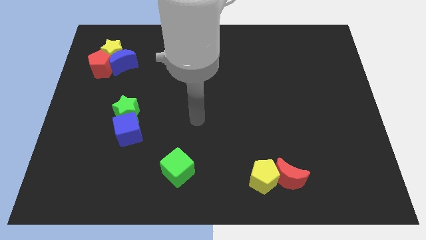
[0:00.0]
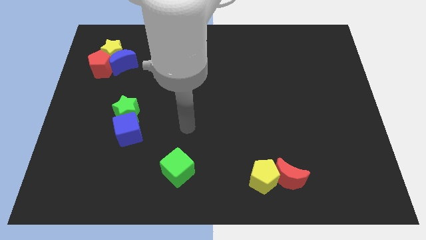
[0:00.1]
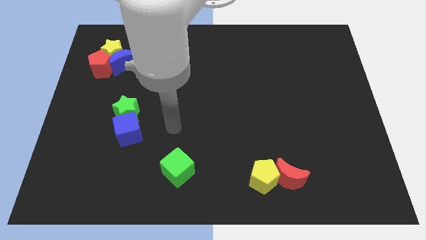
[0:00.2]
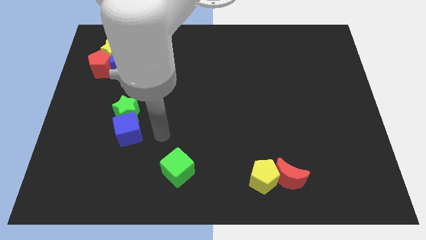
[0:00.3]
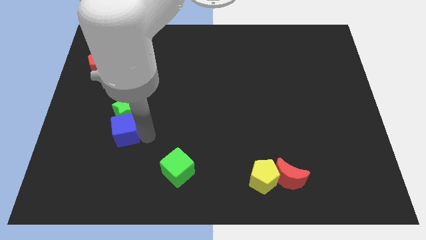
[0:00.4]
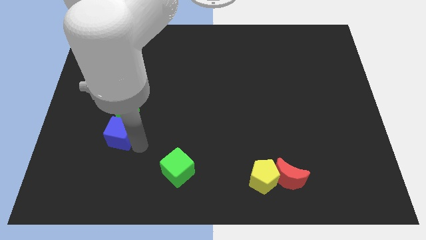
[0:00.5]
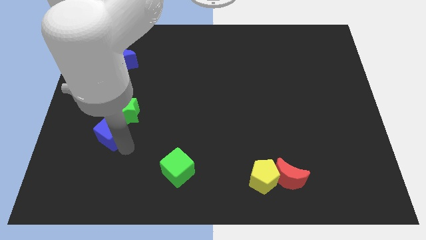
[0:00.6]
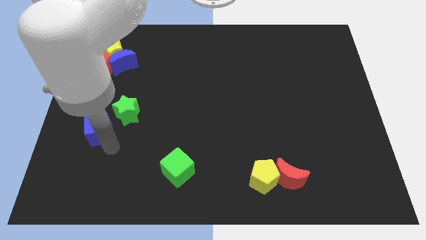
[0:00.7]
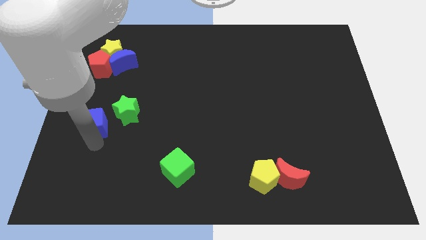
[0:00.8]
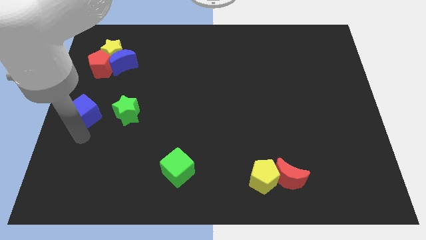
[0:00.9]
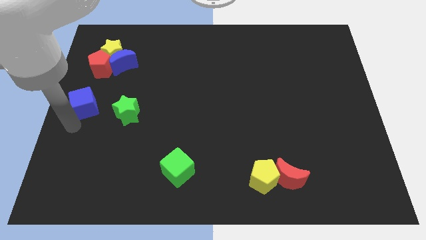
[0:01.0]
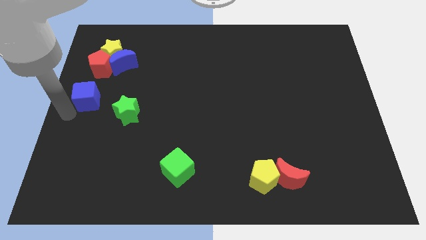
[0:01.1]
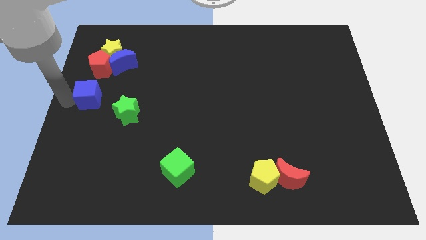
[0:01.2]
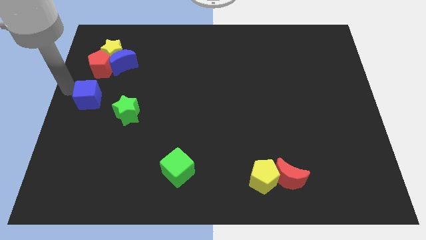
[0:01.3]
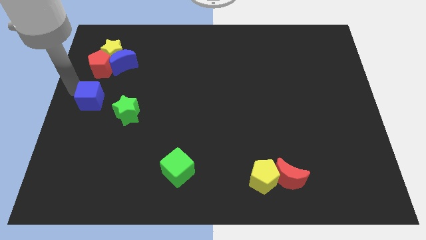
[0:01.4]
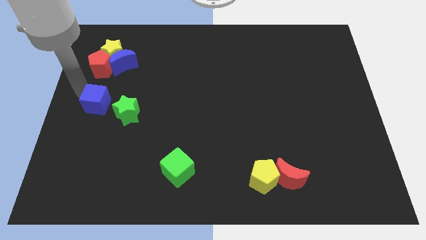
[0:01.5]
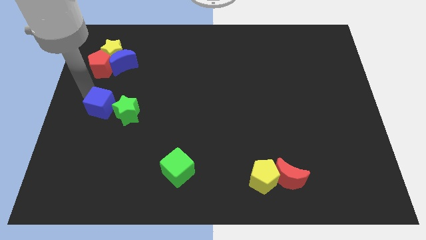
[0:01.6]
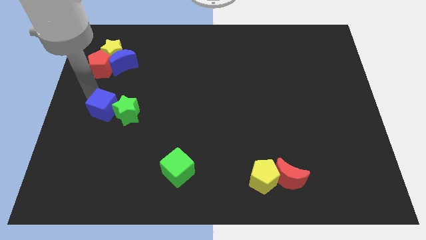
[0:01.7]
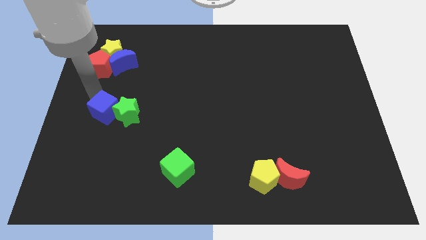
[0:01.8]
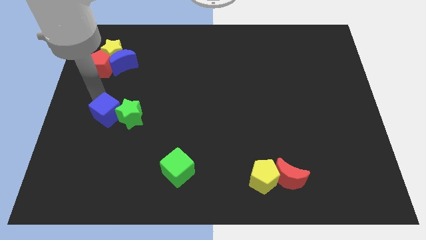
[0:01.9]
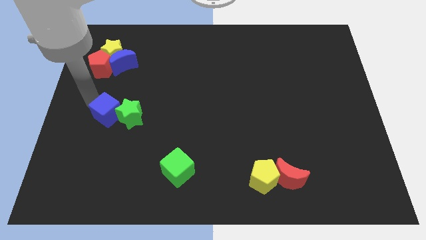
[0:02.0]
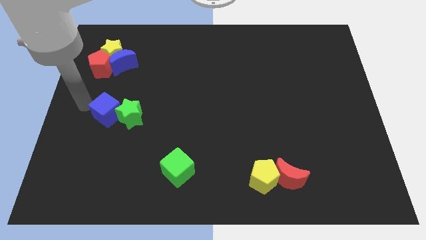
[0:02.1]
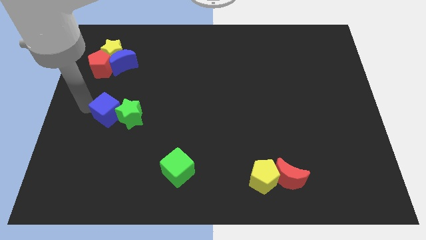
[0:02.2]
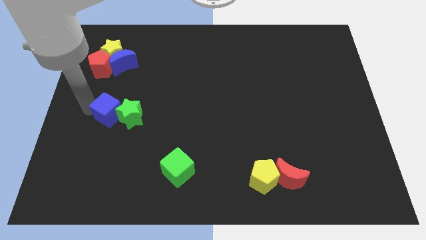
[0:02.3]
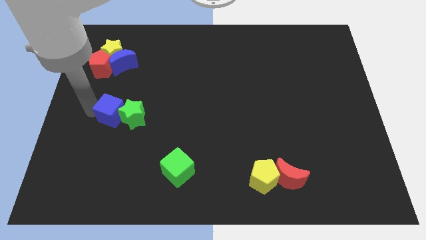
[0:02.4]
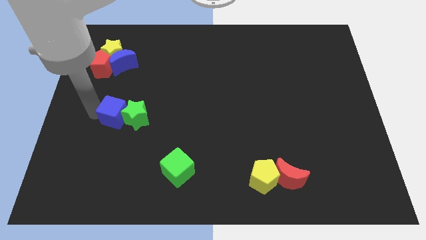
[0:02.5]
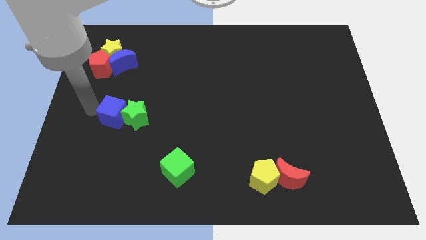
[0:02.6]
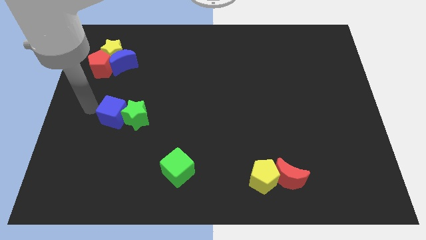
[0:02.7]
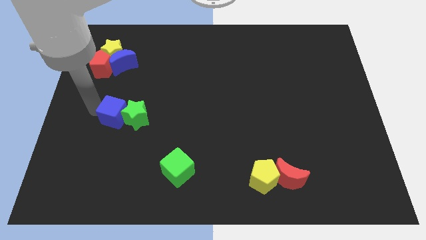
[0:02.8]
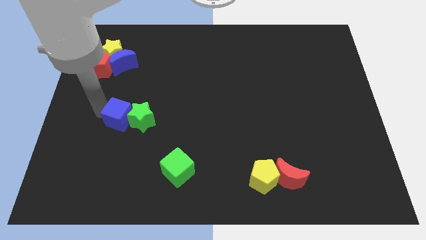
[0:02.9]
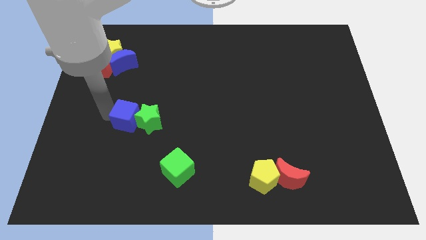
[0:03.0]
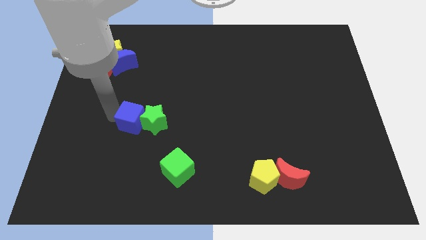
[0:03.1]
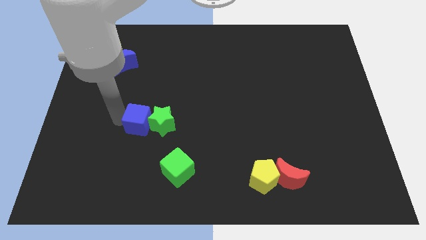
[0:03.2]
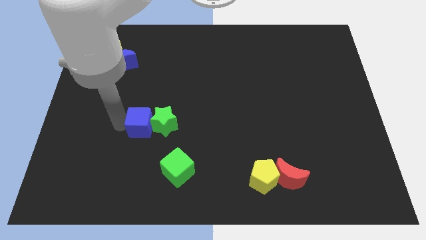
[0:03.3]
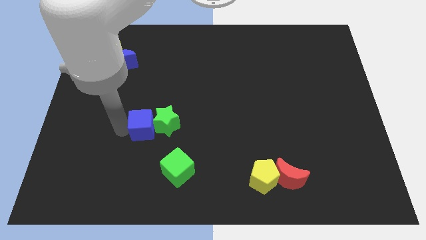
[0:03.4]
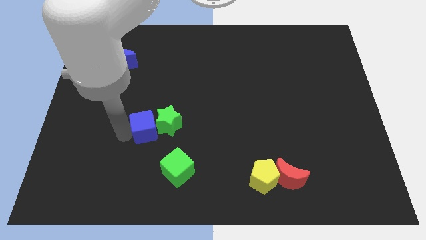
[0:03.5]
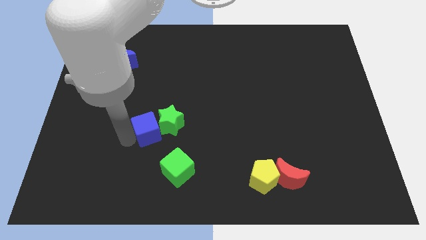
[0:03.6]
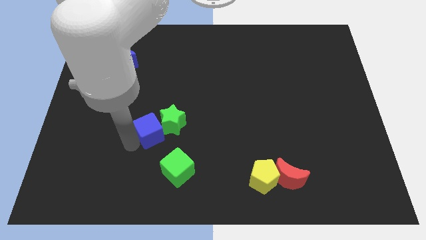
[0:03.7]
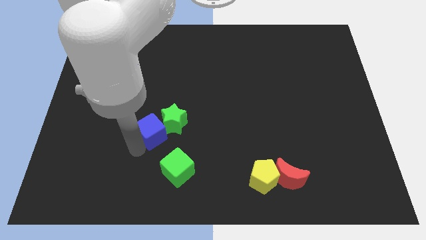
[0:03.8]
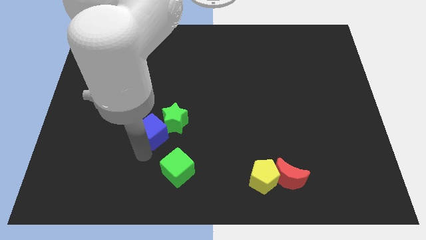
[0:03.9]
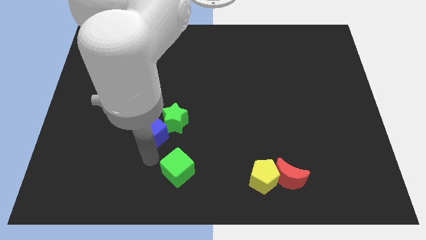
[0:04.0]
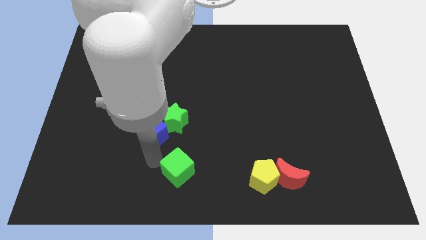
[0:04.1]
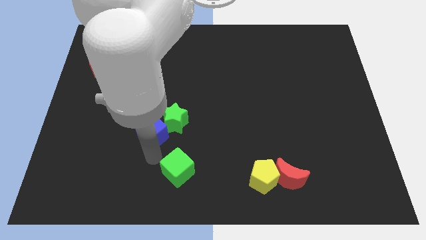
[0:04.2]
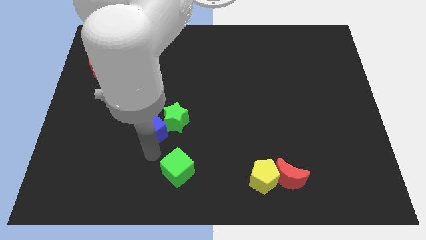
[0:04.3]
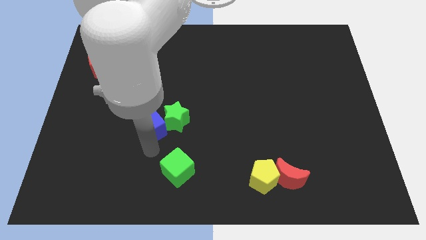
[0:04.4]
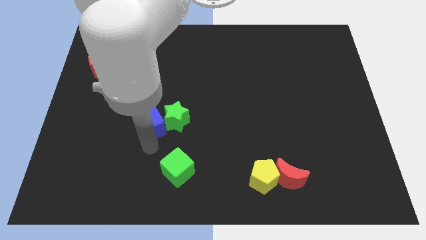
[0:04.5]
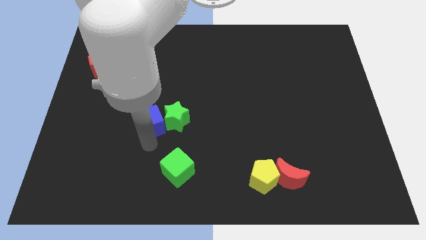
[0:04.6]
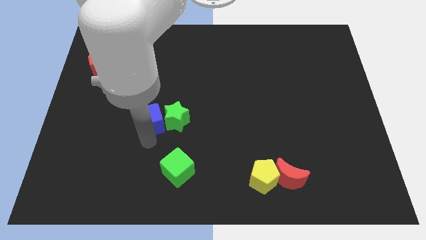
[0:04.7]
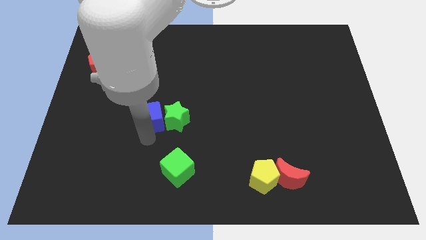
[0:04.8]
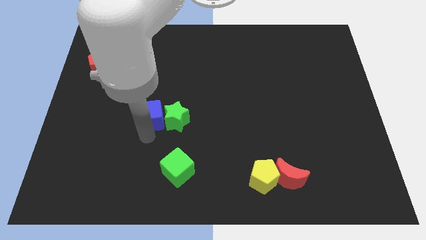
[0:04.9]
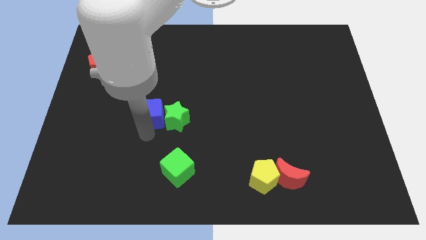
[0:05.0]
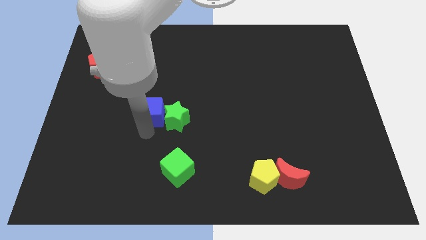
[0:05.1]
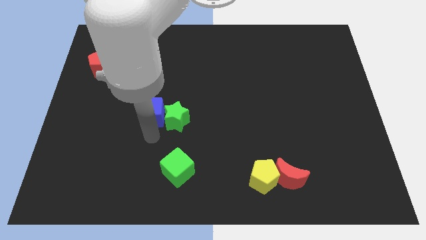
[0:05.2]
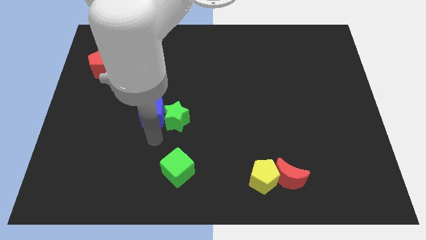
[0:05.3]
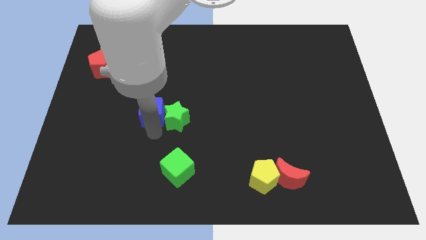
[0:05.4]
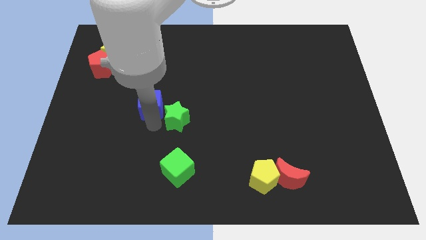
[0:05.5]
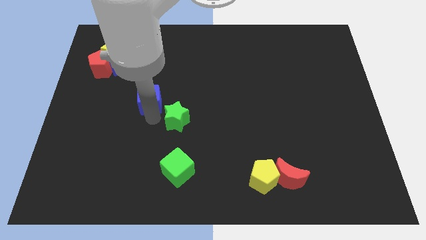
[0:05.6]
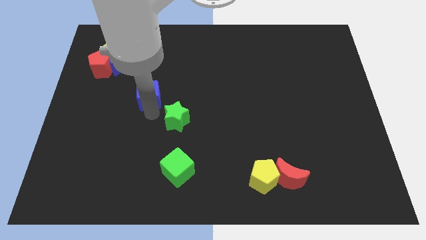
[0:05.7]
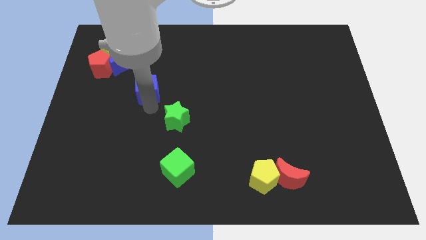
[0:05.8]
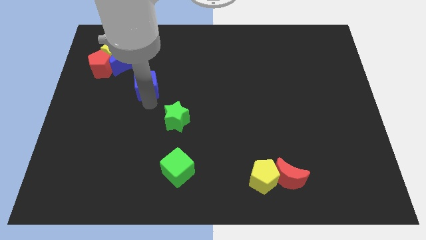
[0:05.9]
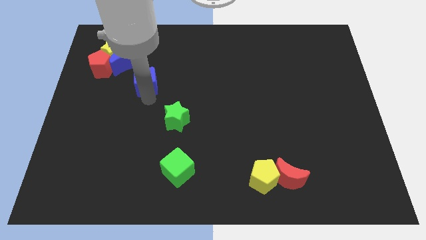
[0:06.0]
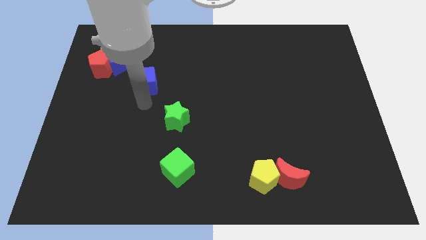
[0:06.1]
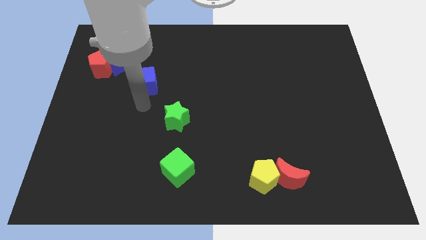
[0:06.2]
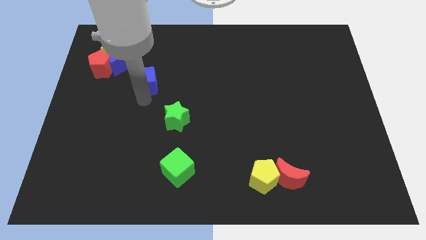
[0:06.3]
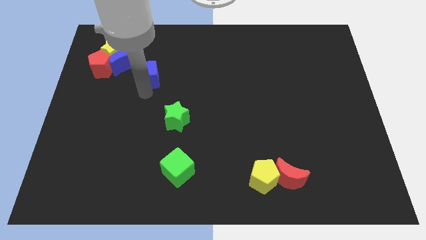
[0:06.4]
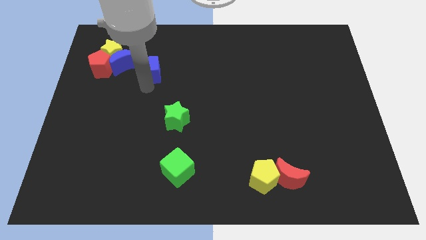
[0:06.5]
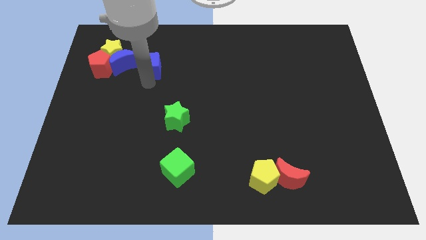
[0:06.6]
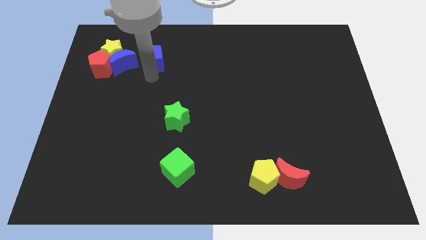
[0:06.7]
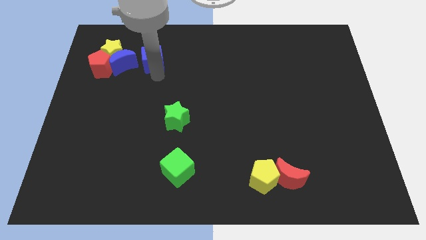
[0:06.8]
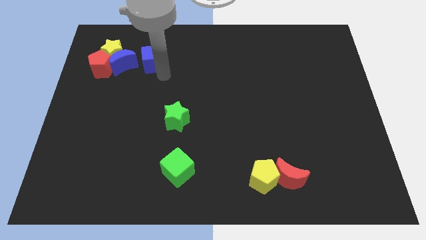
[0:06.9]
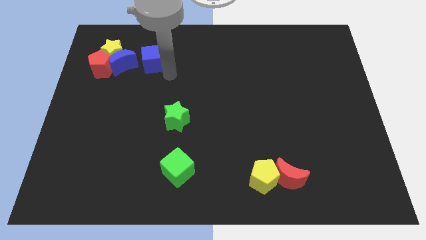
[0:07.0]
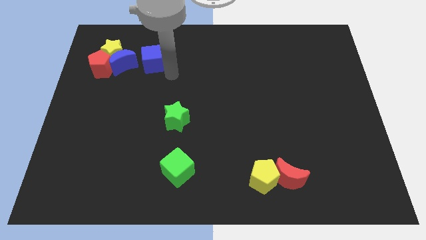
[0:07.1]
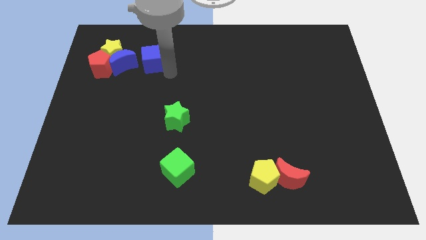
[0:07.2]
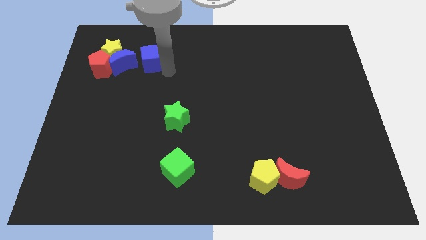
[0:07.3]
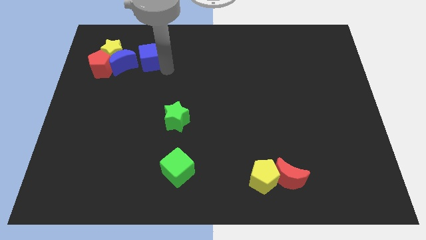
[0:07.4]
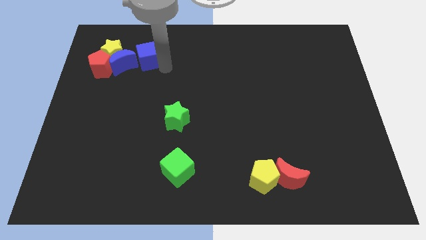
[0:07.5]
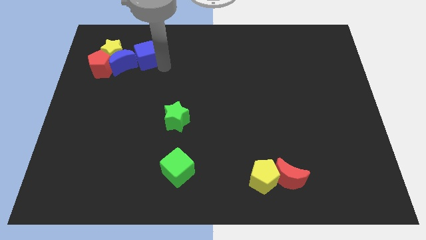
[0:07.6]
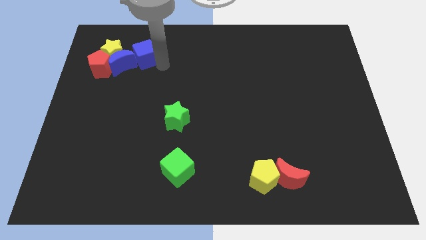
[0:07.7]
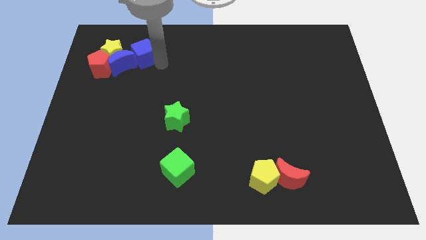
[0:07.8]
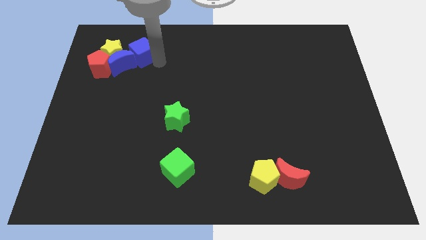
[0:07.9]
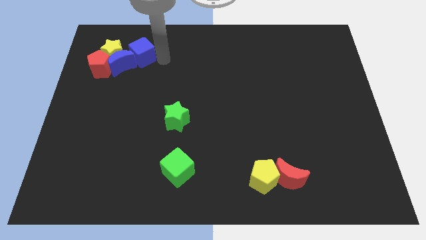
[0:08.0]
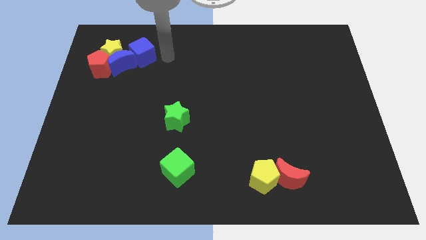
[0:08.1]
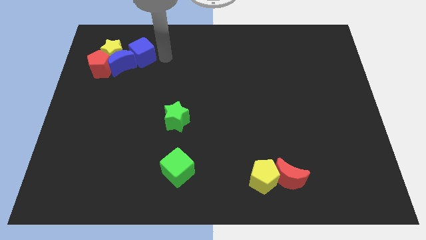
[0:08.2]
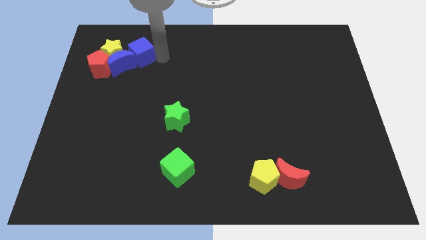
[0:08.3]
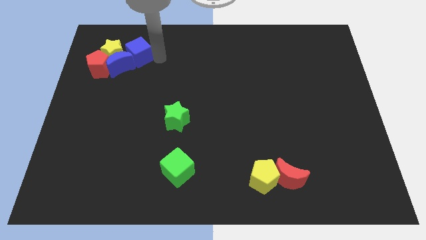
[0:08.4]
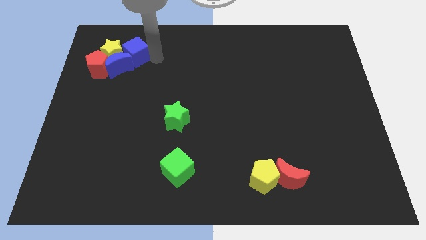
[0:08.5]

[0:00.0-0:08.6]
move the blue cube close to the yellow star
